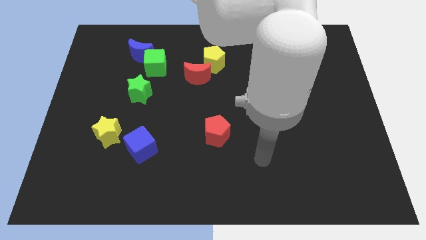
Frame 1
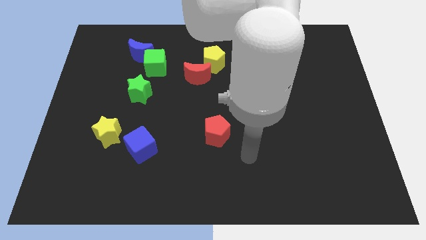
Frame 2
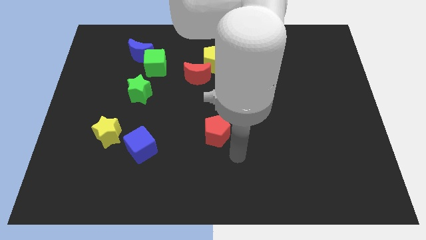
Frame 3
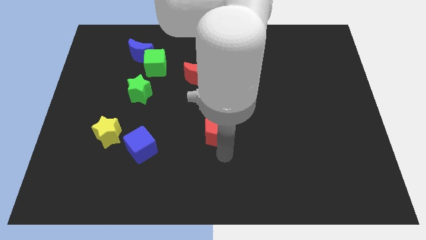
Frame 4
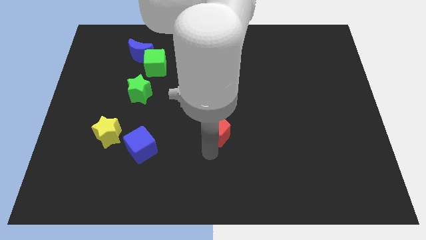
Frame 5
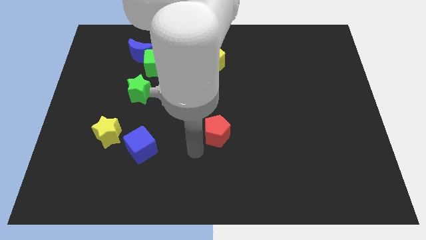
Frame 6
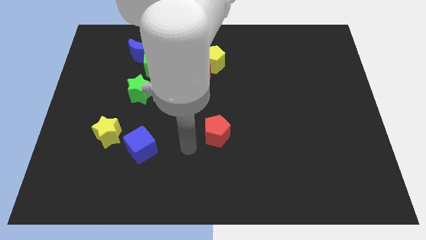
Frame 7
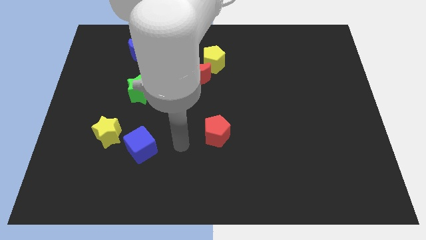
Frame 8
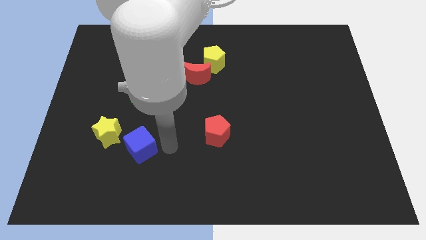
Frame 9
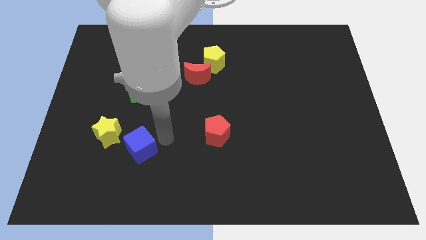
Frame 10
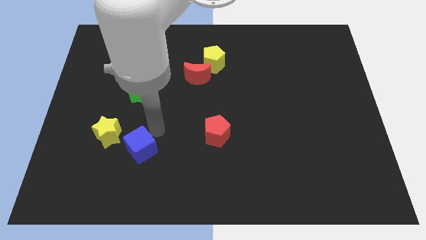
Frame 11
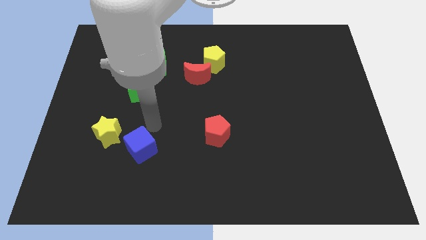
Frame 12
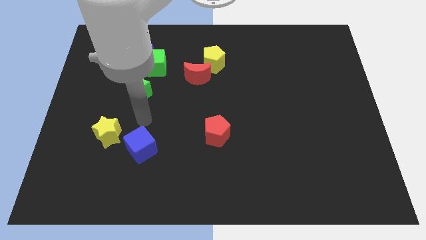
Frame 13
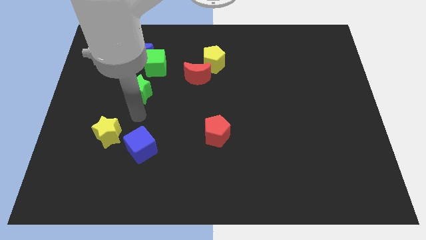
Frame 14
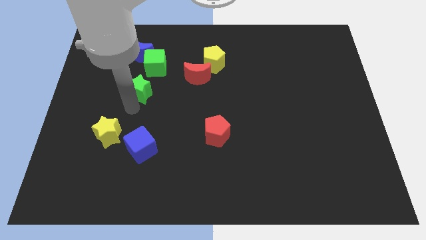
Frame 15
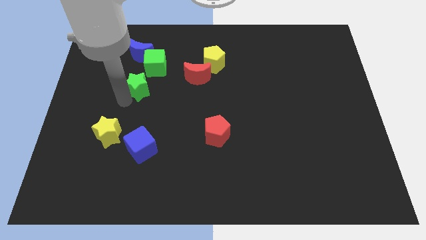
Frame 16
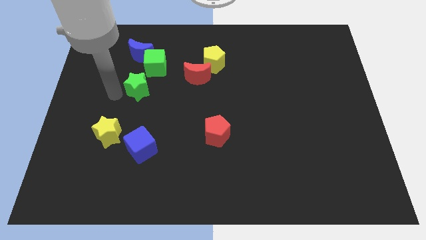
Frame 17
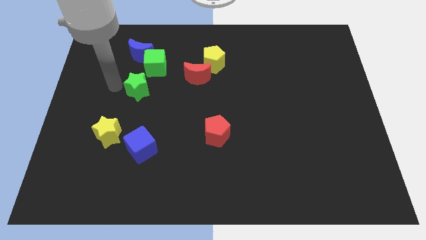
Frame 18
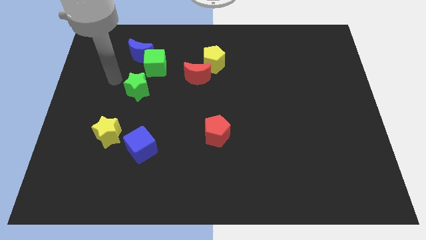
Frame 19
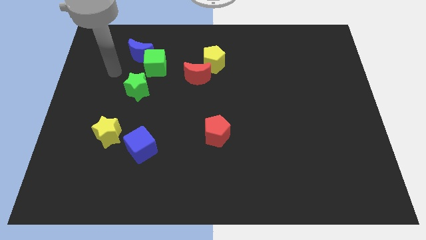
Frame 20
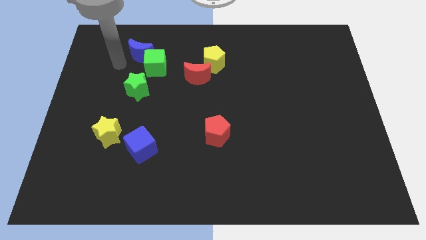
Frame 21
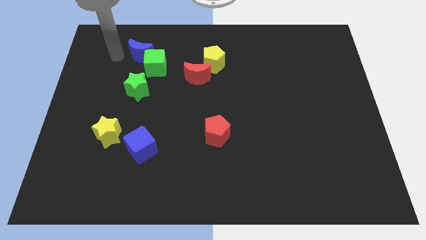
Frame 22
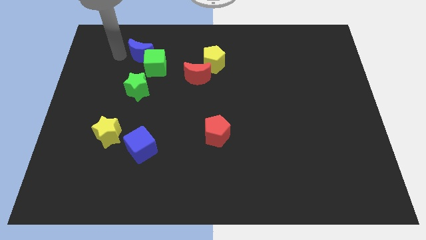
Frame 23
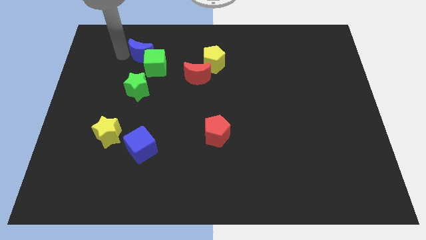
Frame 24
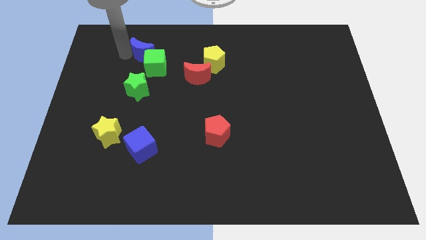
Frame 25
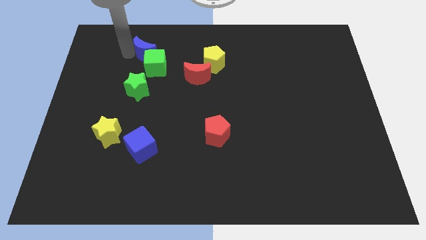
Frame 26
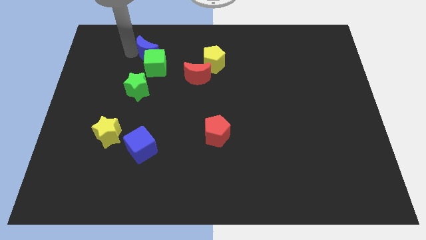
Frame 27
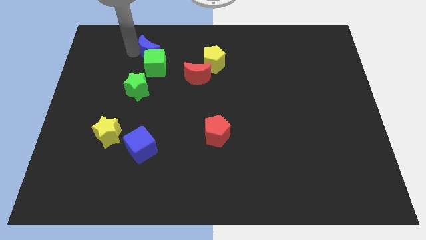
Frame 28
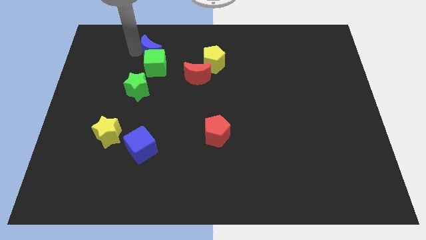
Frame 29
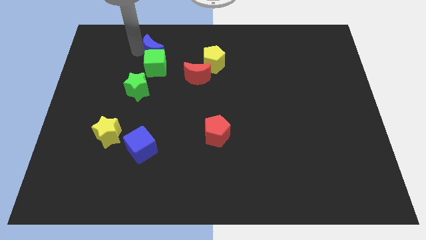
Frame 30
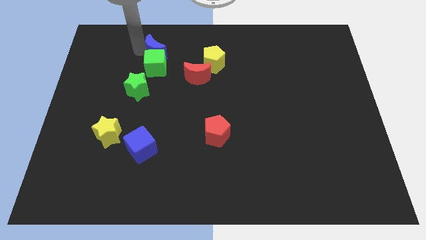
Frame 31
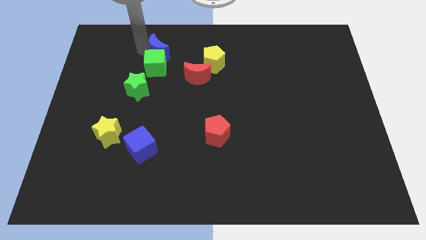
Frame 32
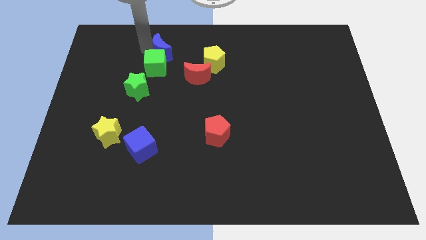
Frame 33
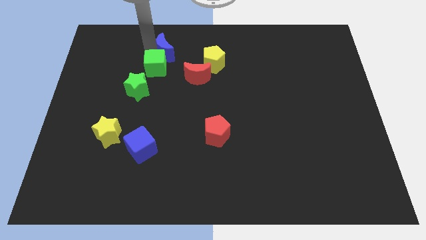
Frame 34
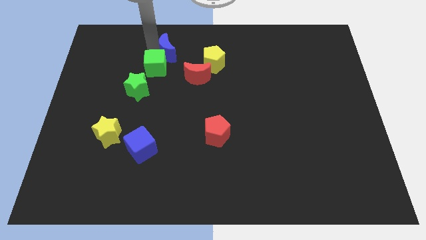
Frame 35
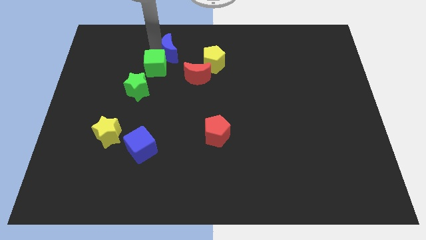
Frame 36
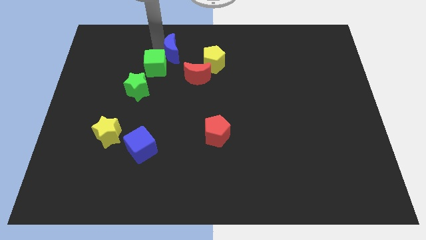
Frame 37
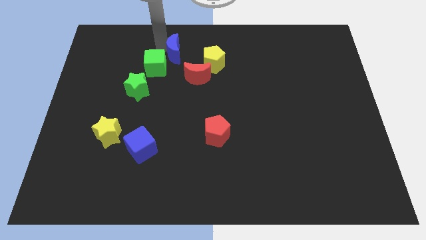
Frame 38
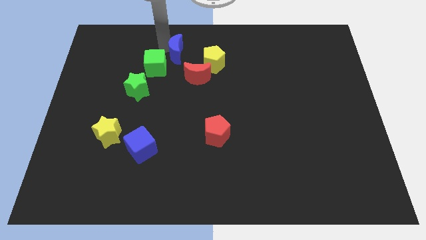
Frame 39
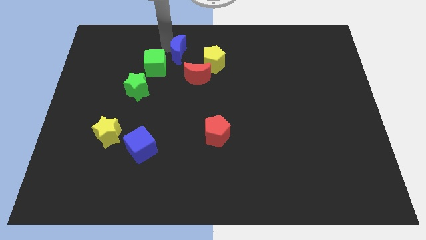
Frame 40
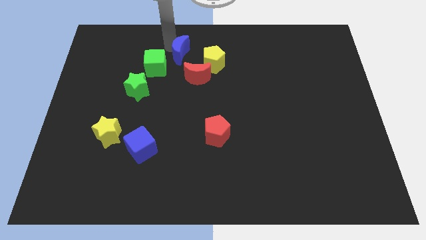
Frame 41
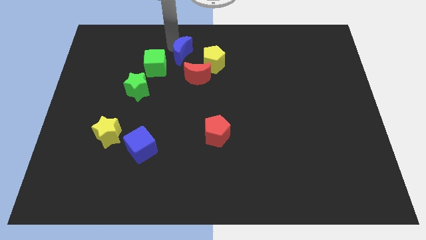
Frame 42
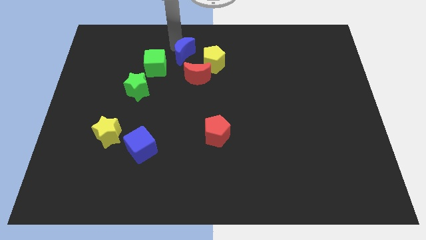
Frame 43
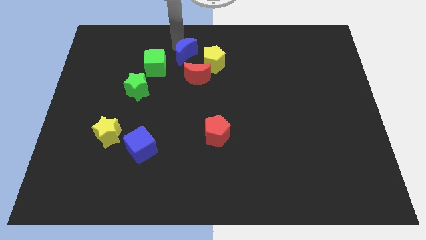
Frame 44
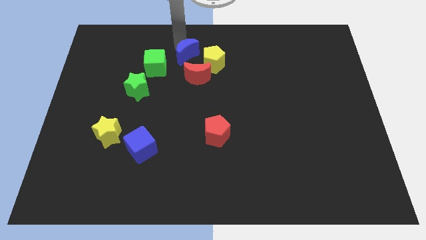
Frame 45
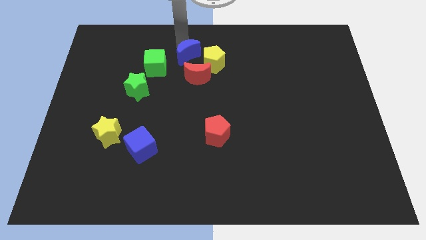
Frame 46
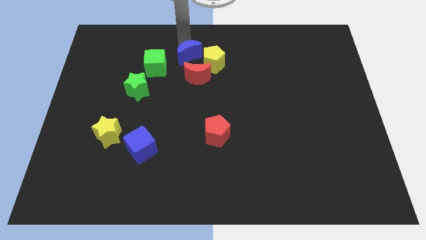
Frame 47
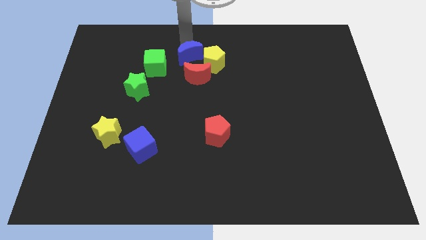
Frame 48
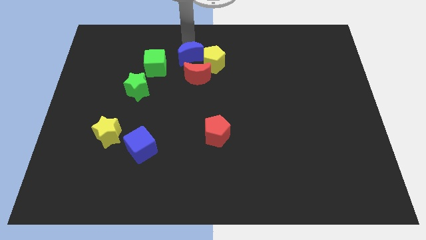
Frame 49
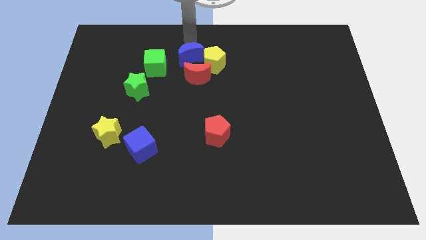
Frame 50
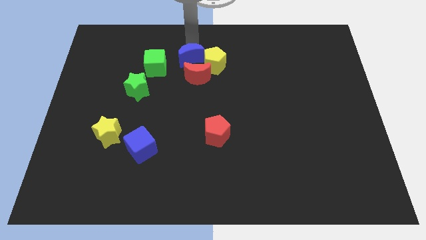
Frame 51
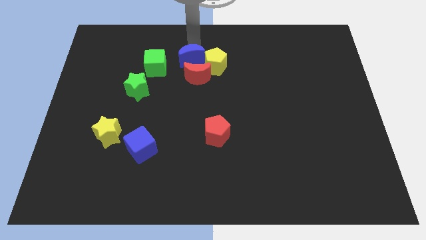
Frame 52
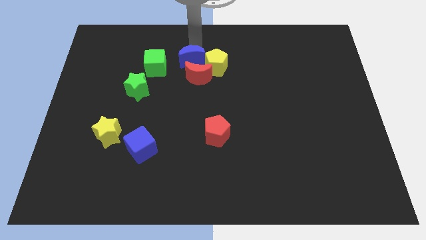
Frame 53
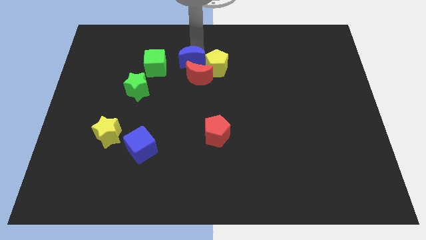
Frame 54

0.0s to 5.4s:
put the blue moon close to the red moon

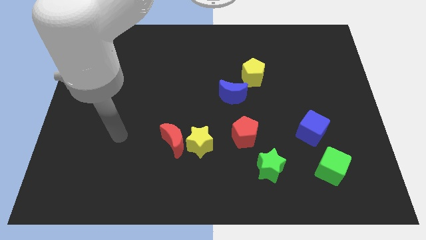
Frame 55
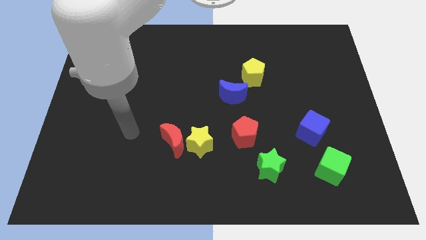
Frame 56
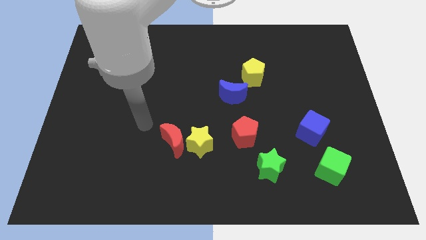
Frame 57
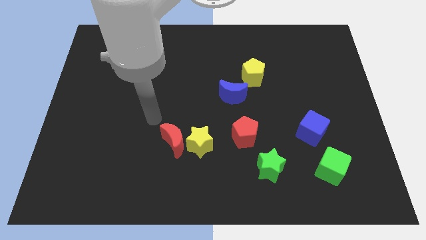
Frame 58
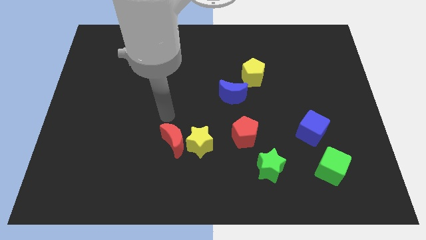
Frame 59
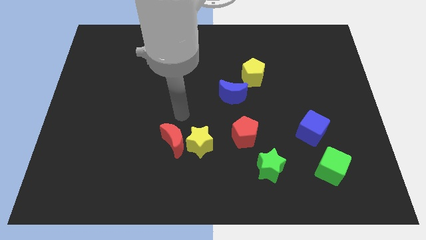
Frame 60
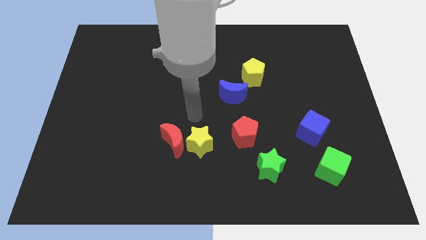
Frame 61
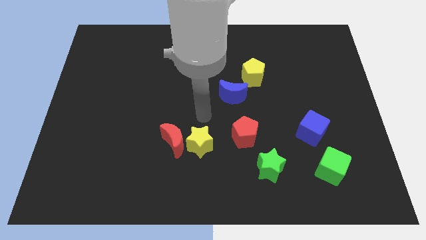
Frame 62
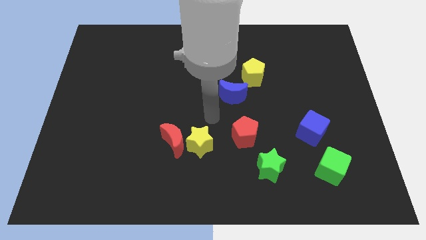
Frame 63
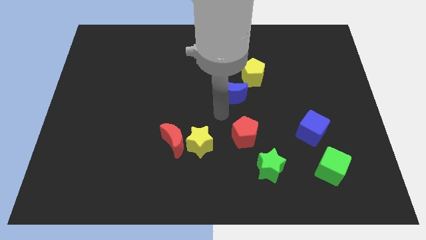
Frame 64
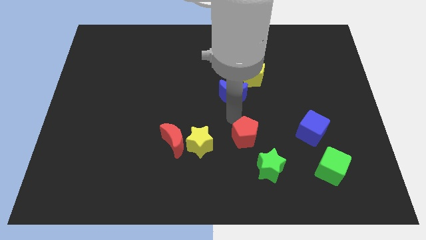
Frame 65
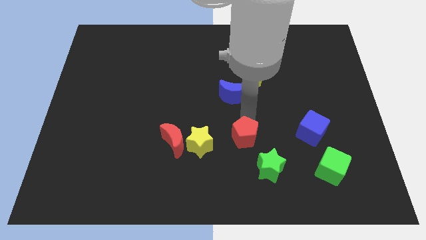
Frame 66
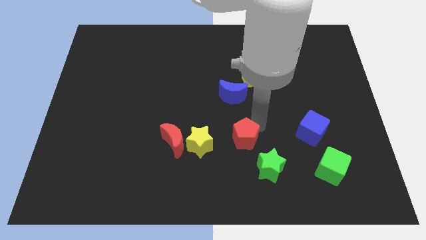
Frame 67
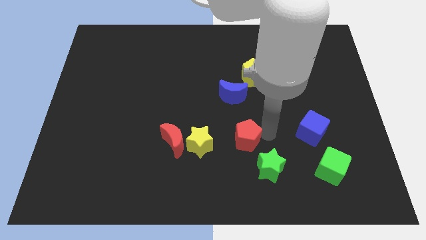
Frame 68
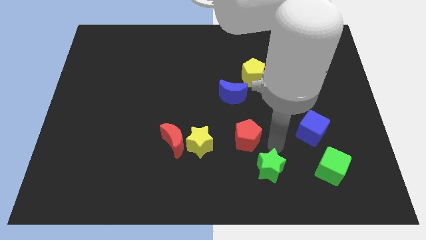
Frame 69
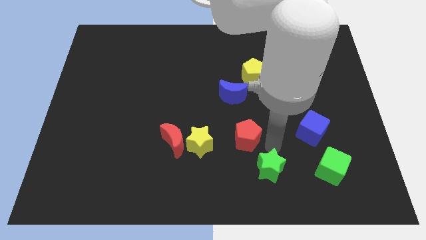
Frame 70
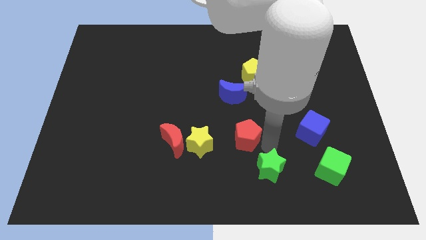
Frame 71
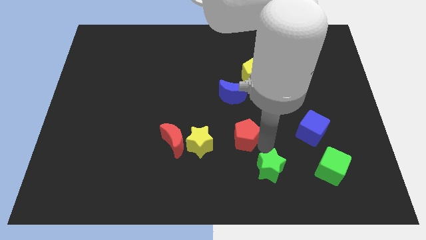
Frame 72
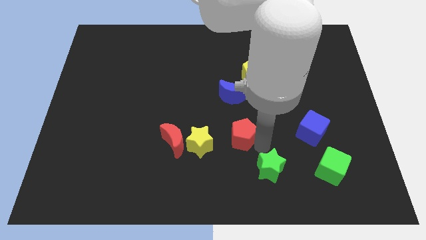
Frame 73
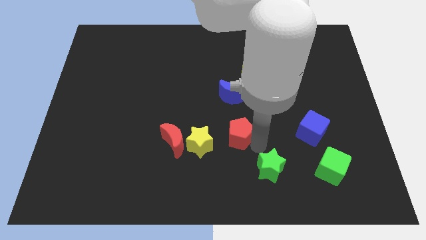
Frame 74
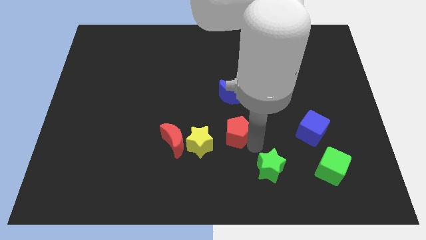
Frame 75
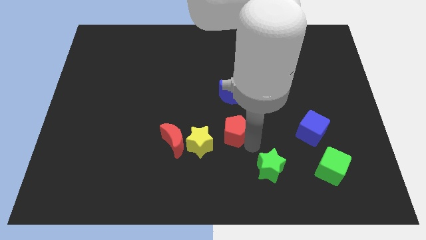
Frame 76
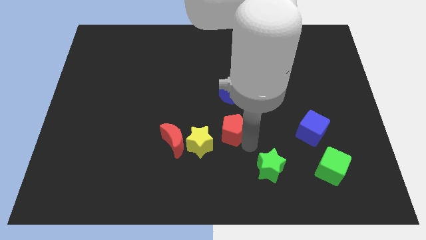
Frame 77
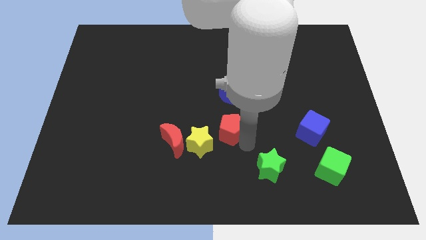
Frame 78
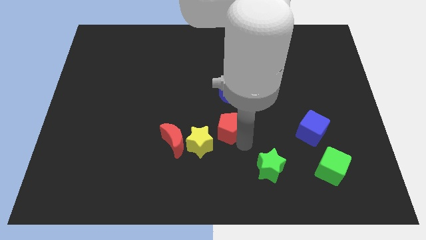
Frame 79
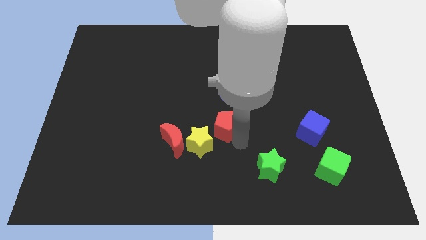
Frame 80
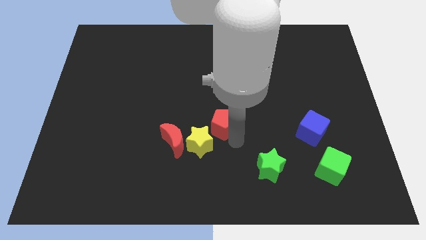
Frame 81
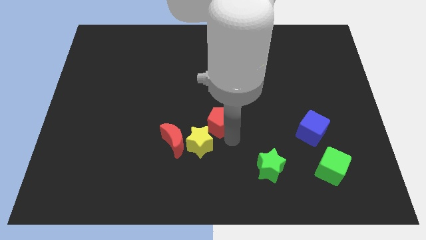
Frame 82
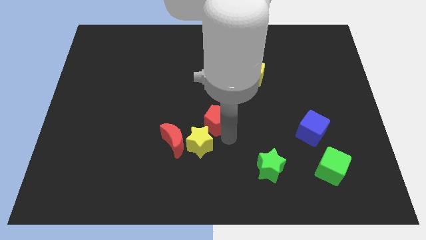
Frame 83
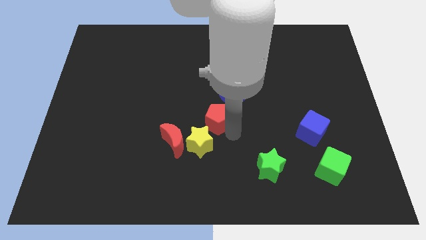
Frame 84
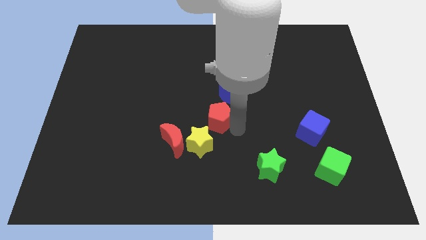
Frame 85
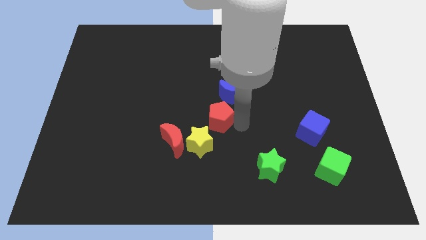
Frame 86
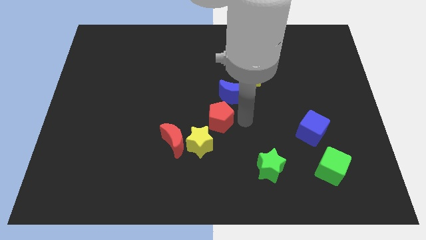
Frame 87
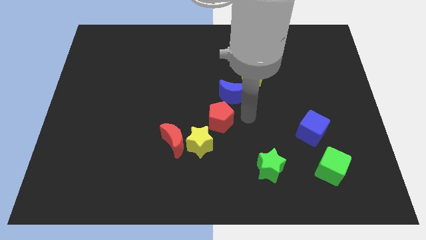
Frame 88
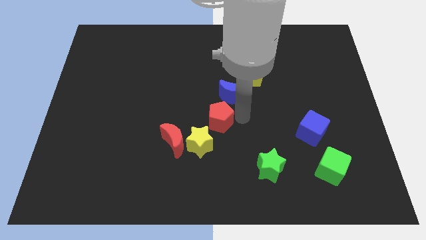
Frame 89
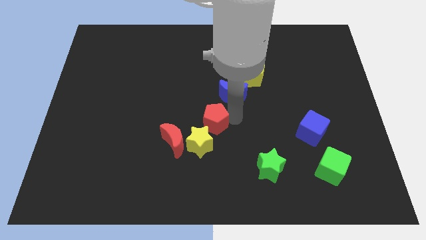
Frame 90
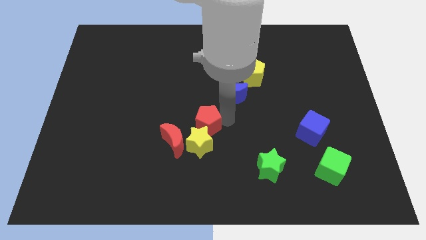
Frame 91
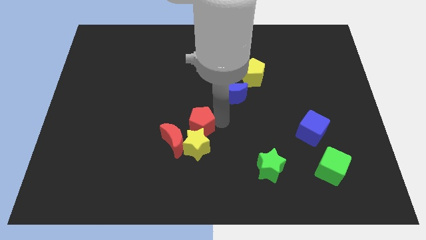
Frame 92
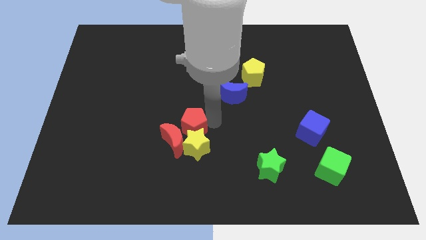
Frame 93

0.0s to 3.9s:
slide the red pentagon next to the red moon
